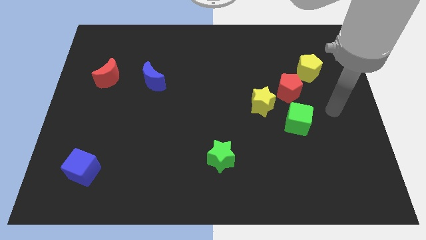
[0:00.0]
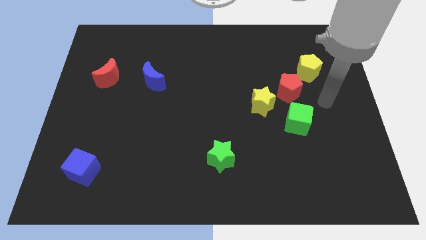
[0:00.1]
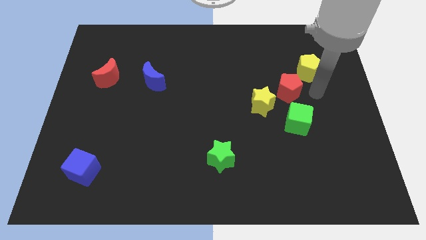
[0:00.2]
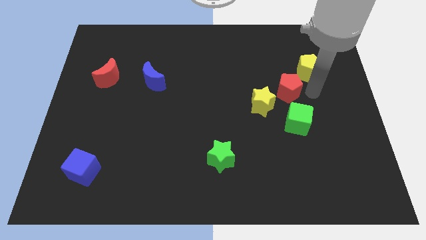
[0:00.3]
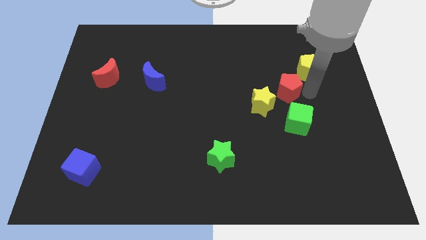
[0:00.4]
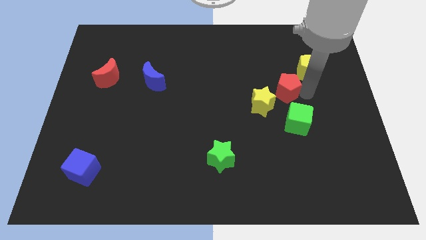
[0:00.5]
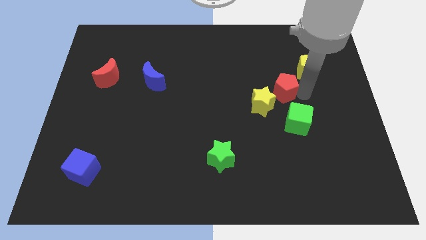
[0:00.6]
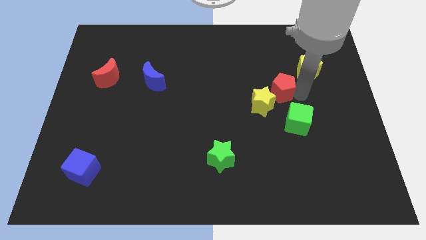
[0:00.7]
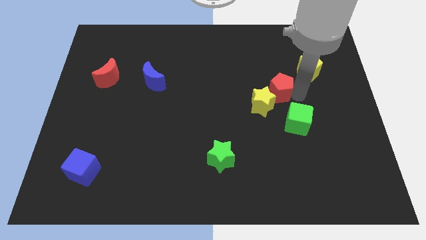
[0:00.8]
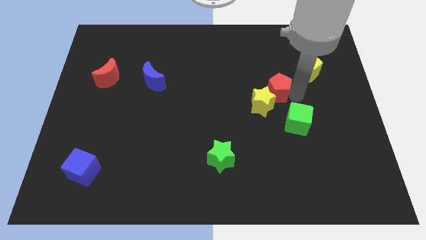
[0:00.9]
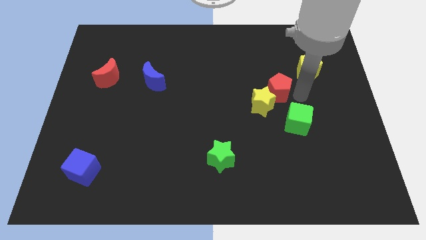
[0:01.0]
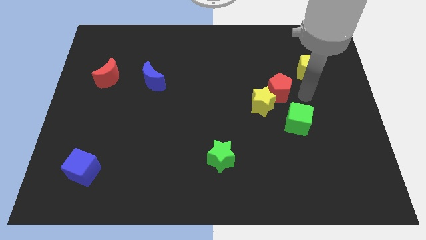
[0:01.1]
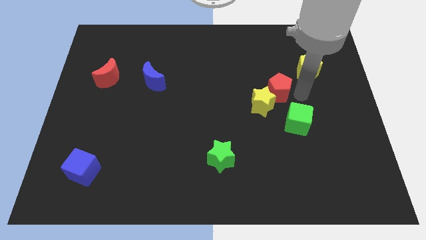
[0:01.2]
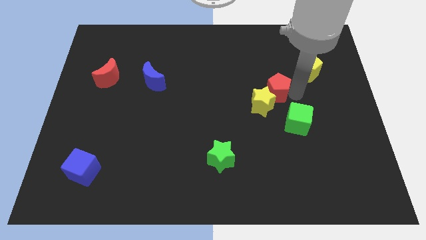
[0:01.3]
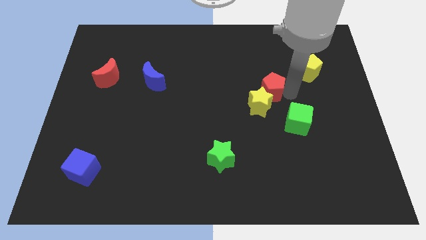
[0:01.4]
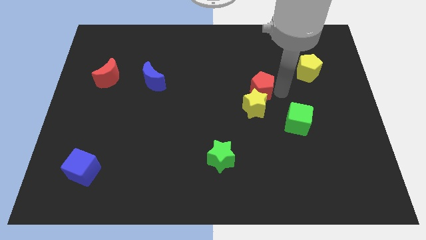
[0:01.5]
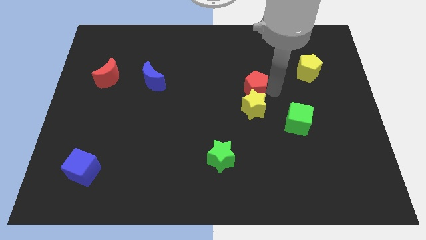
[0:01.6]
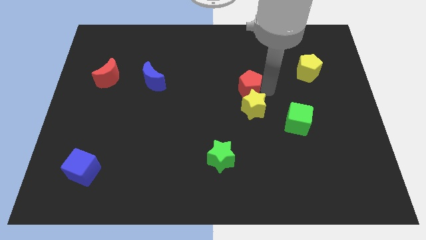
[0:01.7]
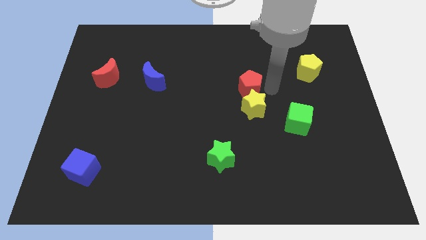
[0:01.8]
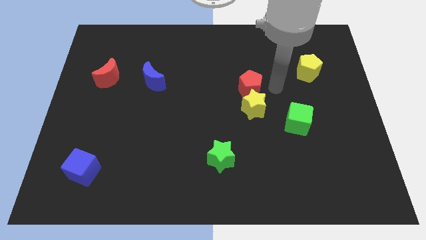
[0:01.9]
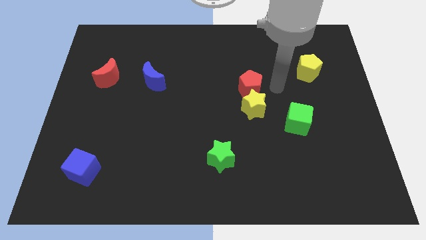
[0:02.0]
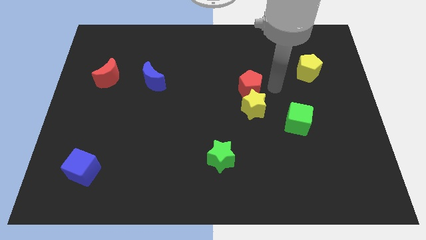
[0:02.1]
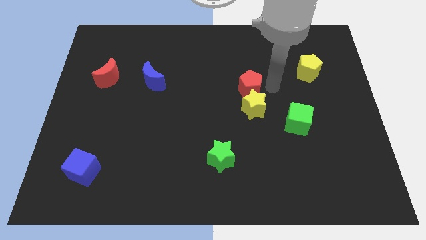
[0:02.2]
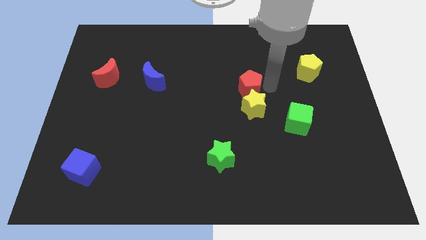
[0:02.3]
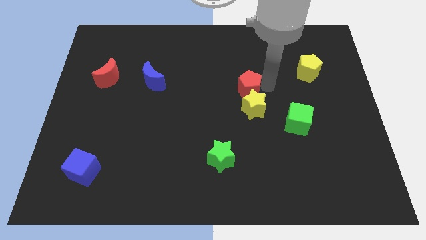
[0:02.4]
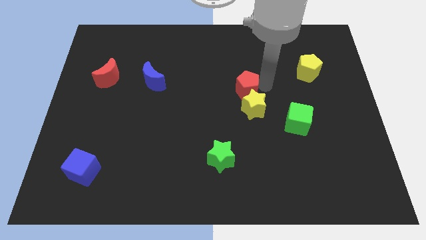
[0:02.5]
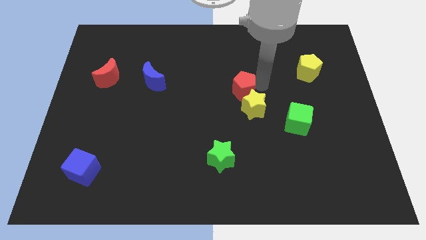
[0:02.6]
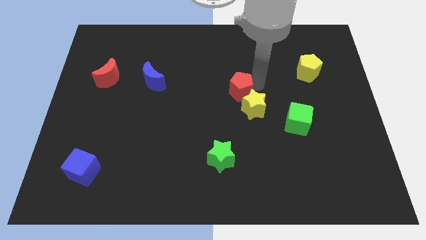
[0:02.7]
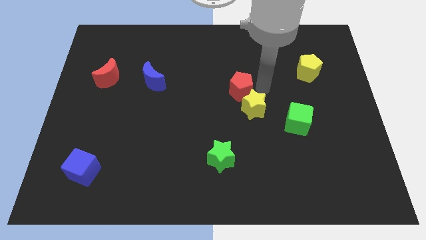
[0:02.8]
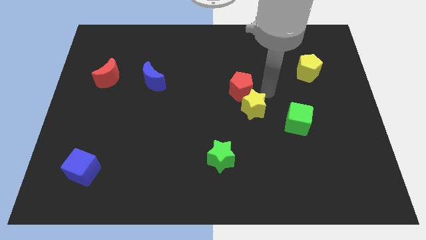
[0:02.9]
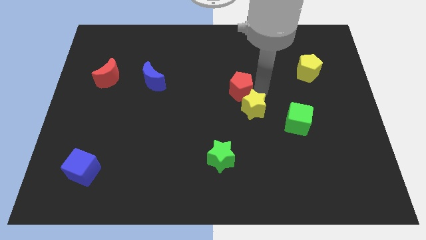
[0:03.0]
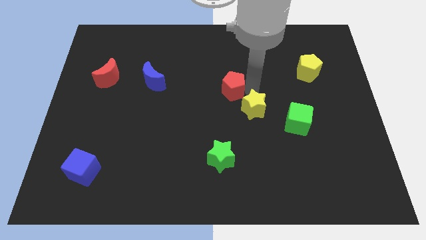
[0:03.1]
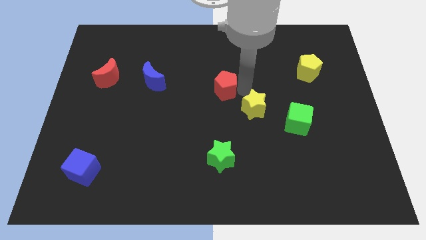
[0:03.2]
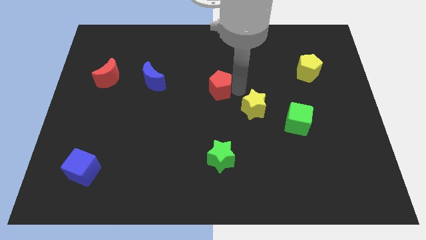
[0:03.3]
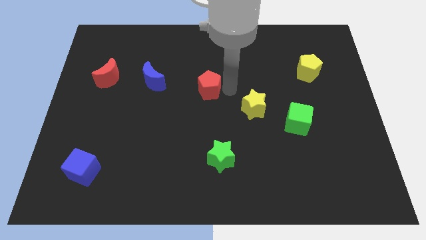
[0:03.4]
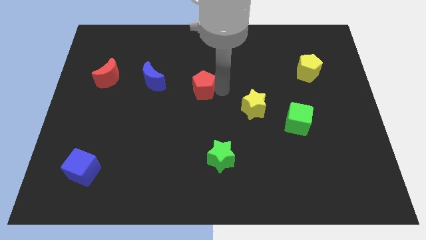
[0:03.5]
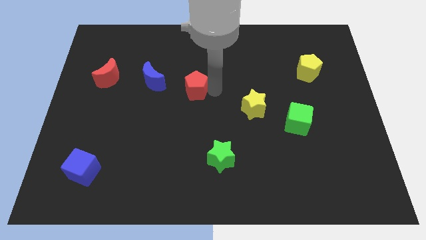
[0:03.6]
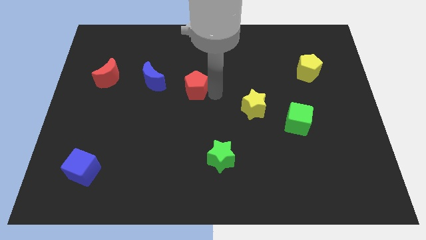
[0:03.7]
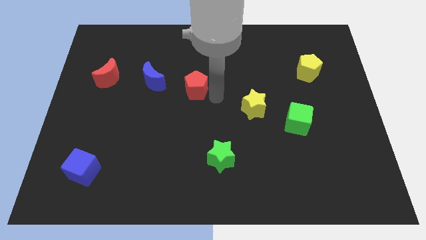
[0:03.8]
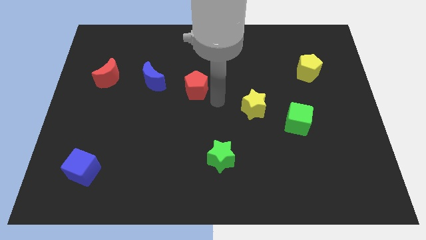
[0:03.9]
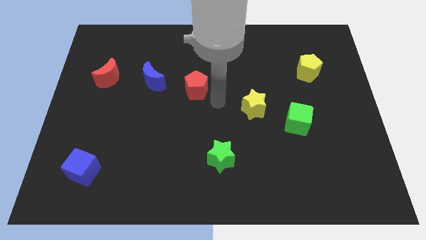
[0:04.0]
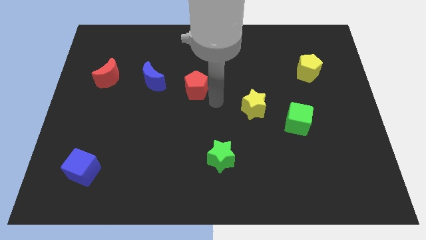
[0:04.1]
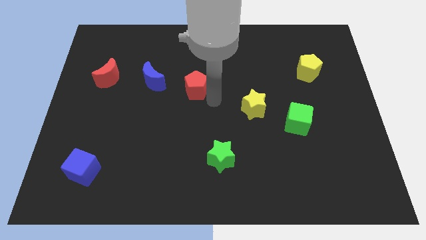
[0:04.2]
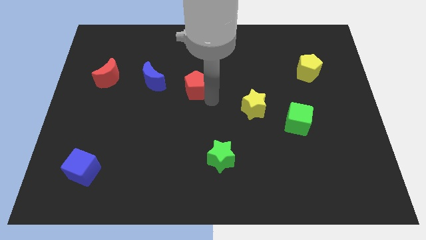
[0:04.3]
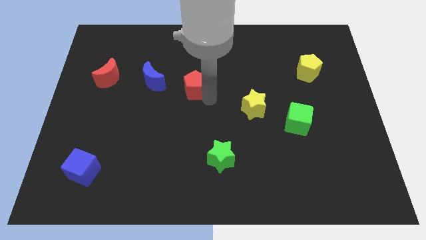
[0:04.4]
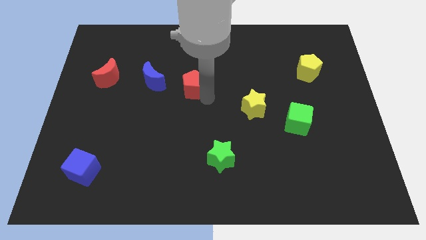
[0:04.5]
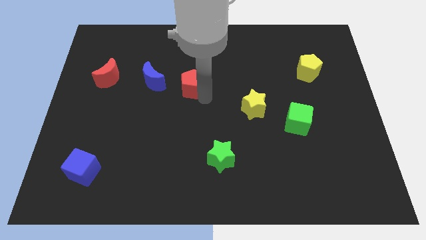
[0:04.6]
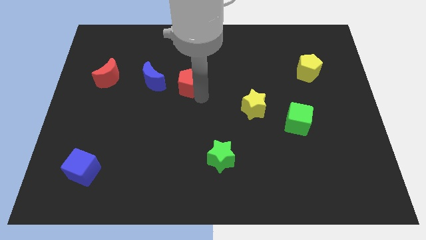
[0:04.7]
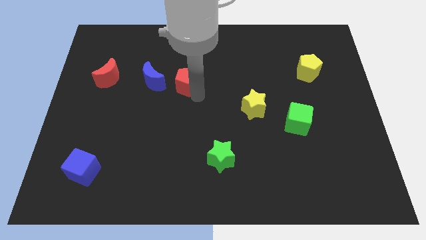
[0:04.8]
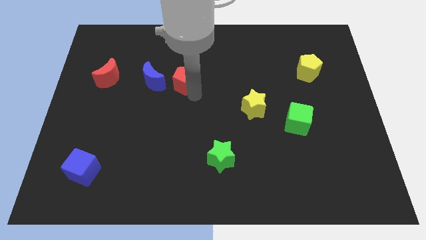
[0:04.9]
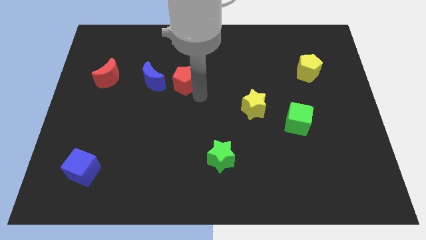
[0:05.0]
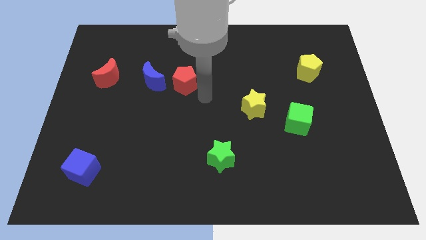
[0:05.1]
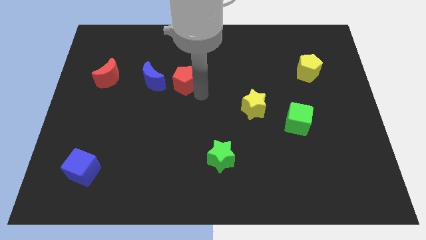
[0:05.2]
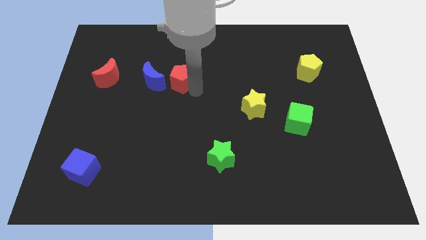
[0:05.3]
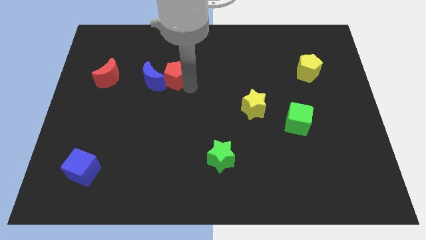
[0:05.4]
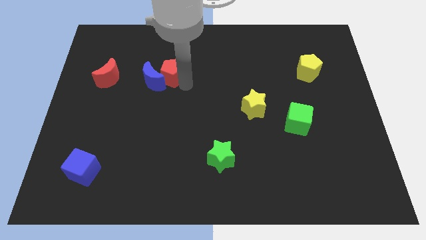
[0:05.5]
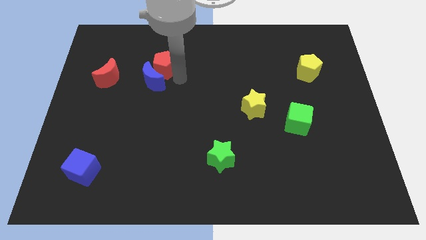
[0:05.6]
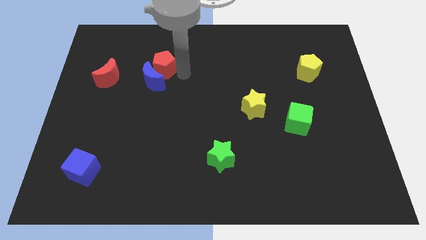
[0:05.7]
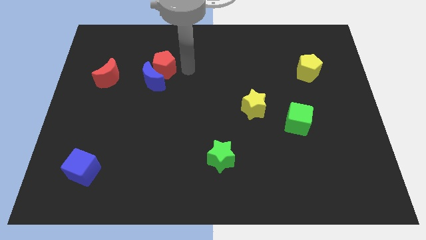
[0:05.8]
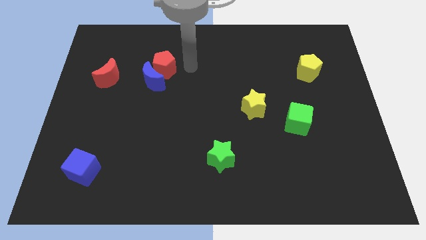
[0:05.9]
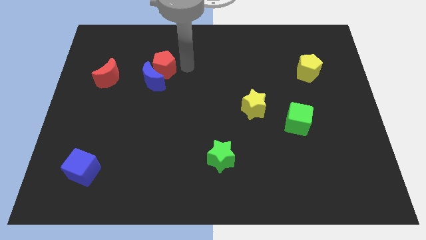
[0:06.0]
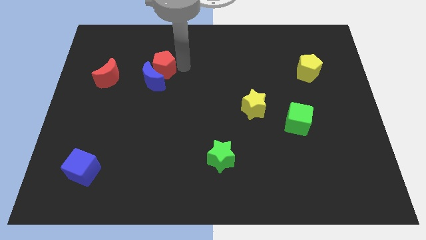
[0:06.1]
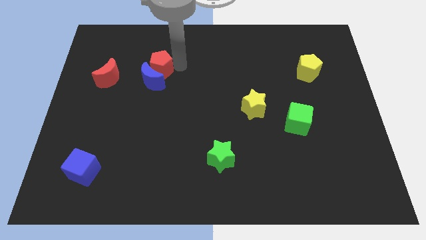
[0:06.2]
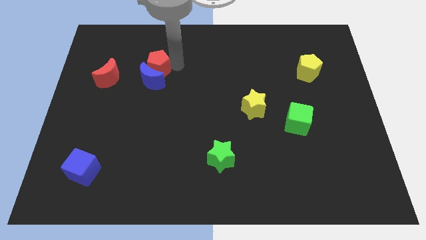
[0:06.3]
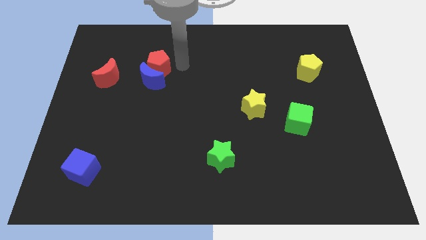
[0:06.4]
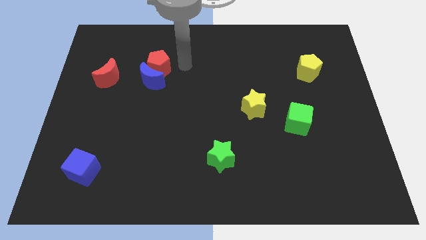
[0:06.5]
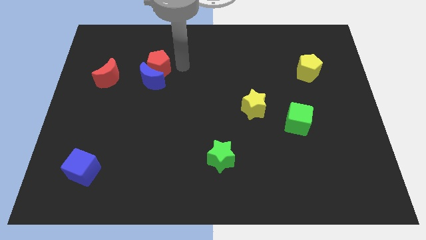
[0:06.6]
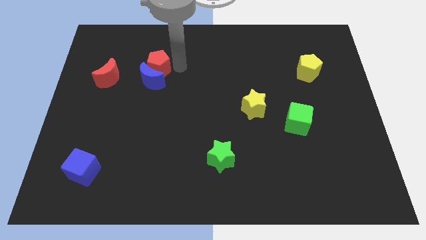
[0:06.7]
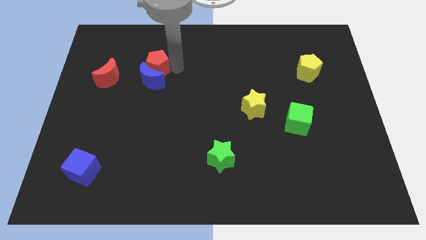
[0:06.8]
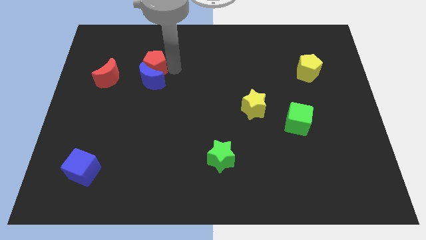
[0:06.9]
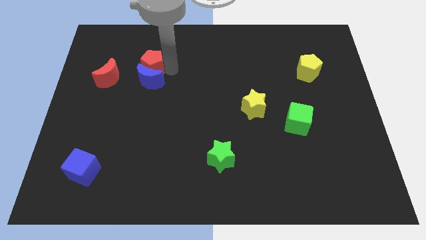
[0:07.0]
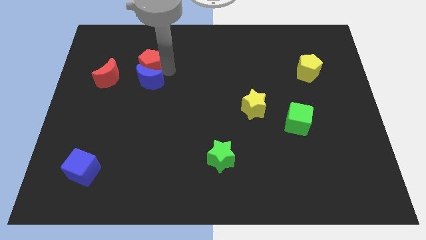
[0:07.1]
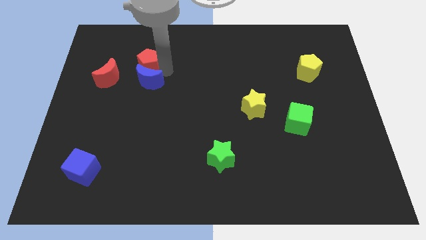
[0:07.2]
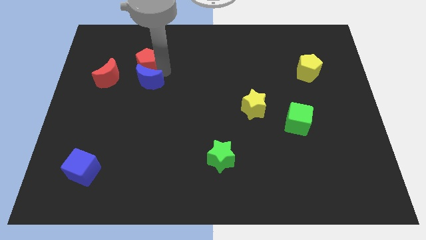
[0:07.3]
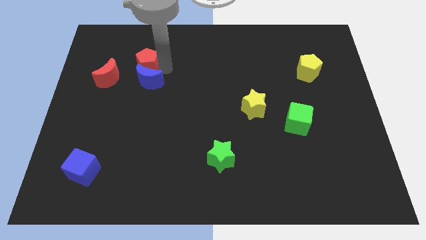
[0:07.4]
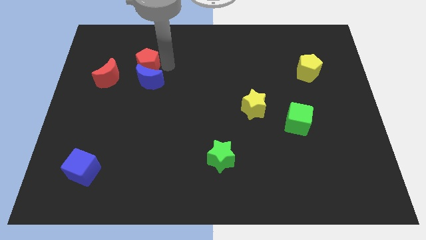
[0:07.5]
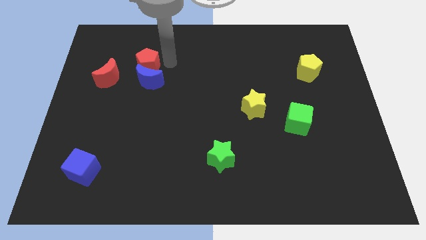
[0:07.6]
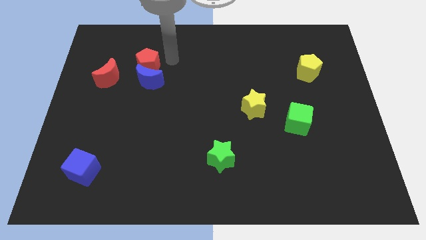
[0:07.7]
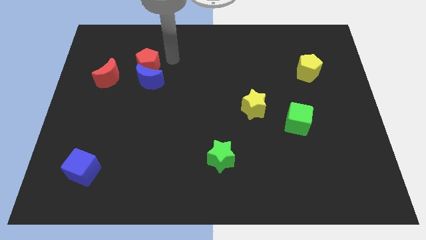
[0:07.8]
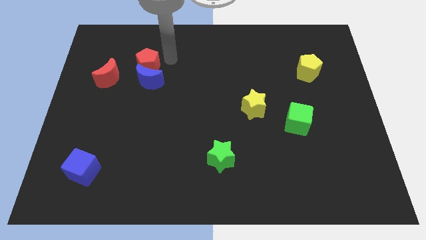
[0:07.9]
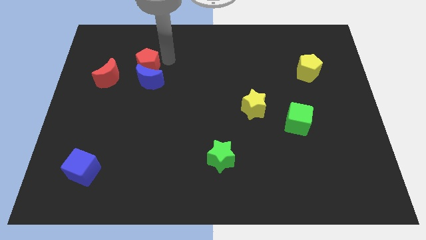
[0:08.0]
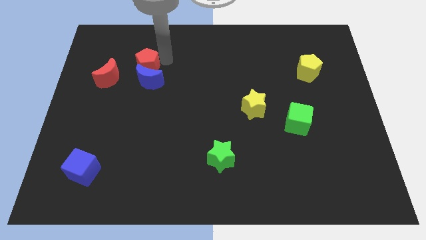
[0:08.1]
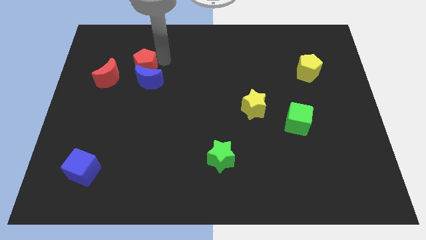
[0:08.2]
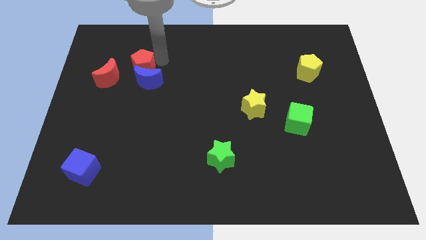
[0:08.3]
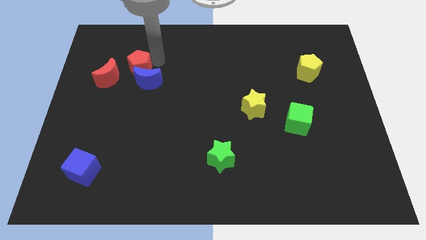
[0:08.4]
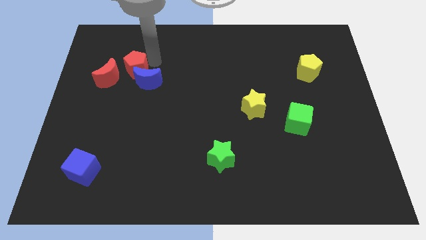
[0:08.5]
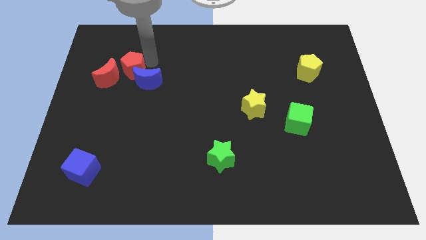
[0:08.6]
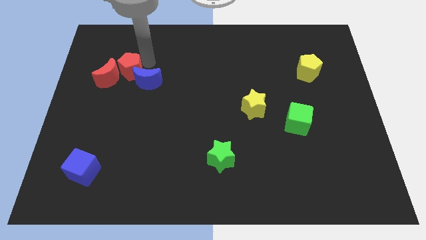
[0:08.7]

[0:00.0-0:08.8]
move the red pentagon next to the red moon
